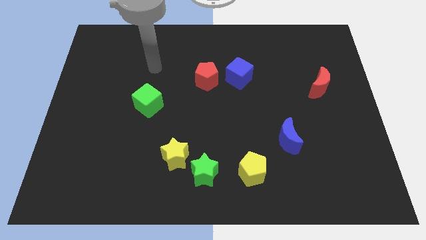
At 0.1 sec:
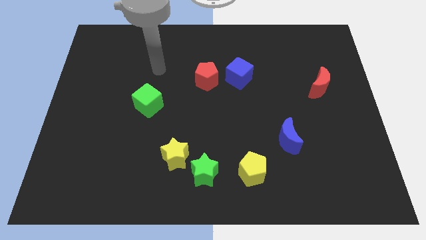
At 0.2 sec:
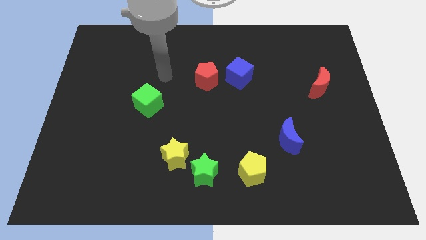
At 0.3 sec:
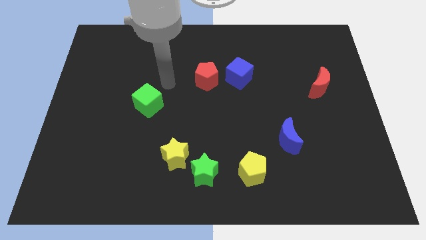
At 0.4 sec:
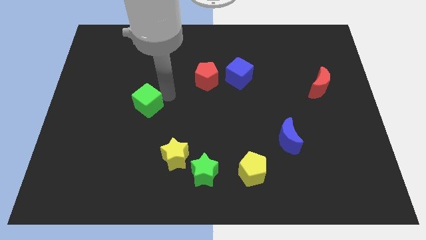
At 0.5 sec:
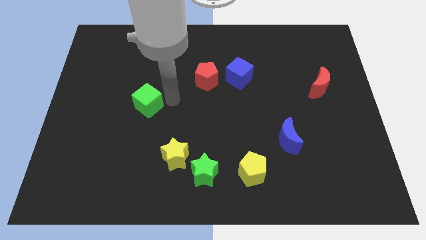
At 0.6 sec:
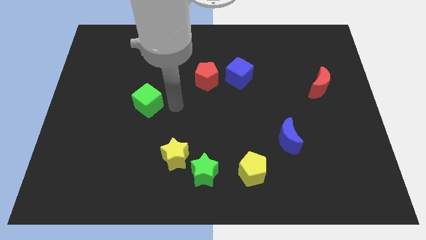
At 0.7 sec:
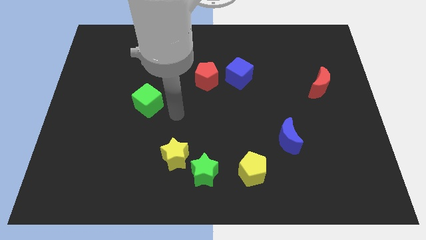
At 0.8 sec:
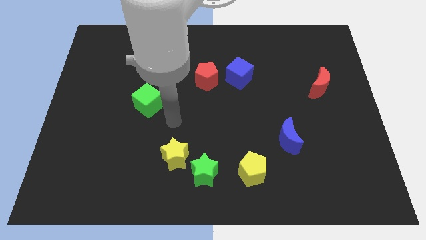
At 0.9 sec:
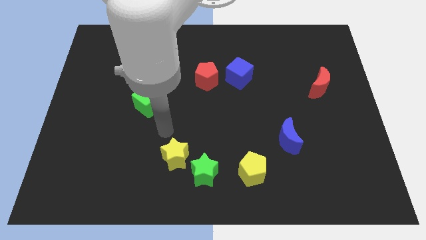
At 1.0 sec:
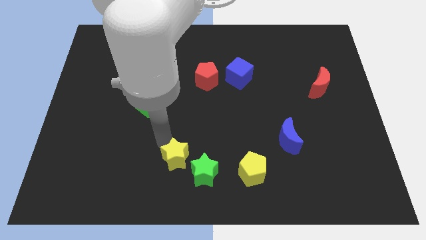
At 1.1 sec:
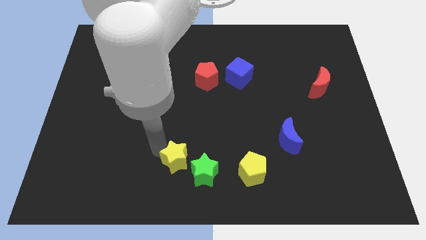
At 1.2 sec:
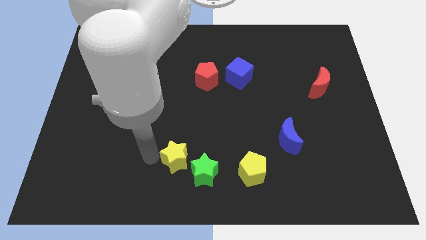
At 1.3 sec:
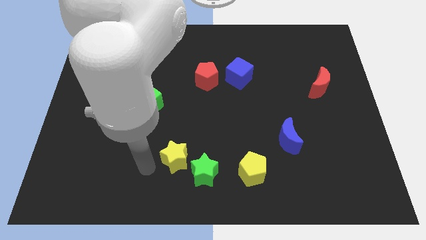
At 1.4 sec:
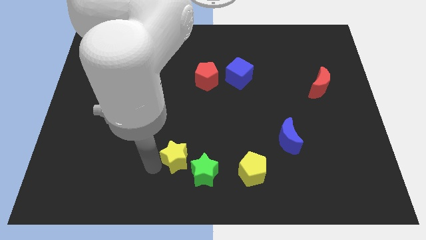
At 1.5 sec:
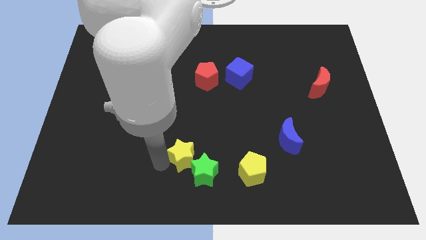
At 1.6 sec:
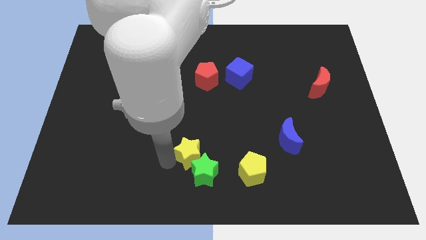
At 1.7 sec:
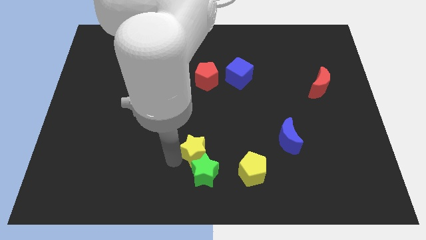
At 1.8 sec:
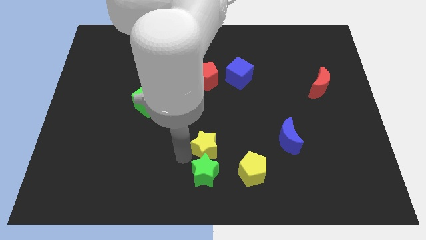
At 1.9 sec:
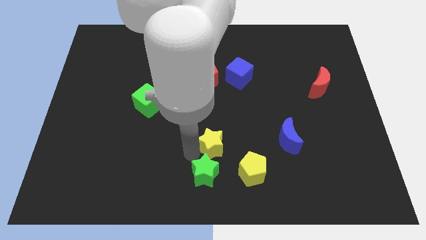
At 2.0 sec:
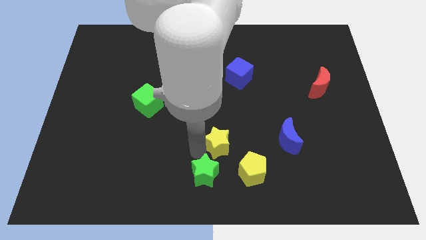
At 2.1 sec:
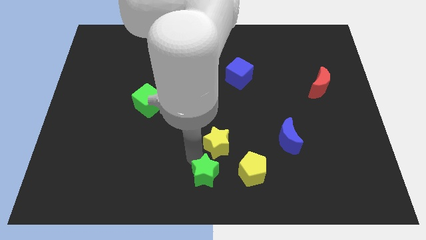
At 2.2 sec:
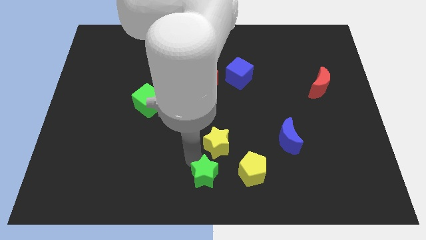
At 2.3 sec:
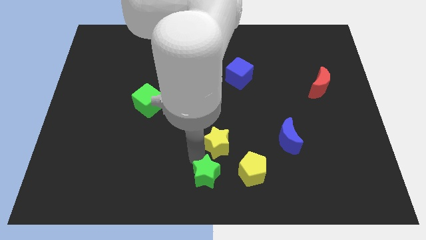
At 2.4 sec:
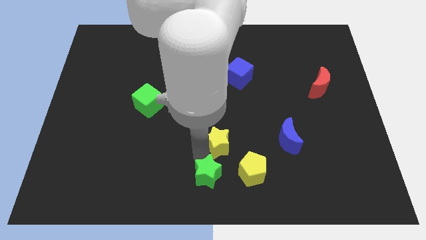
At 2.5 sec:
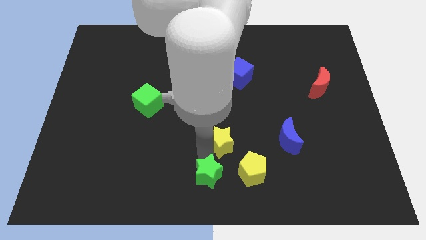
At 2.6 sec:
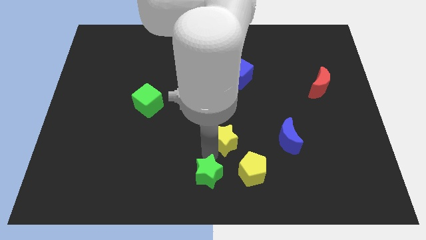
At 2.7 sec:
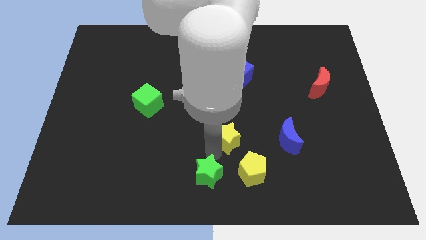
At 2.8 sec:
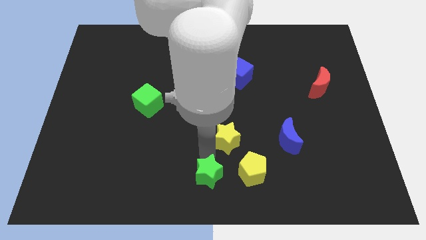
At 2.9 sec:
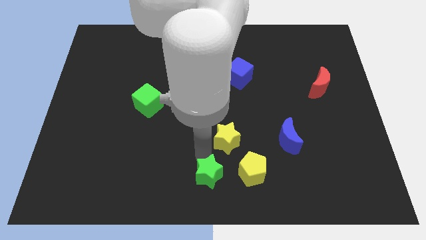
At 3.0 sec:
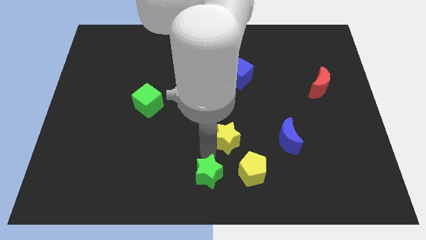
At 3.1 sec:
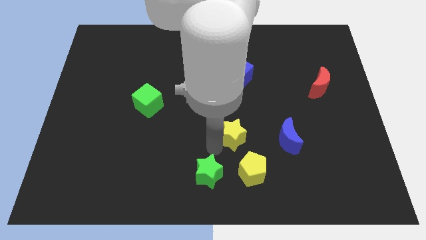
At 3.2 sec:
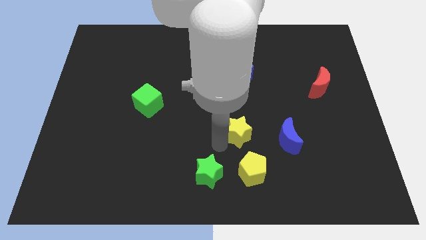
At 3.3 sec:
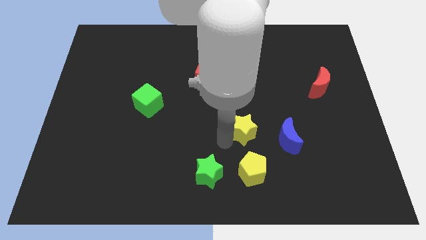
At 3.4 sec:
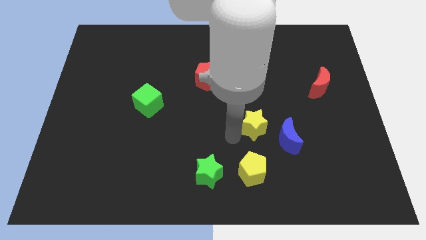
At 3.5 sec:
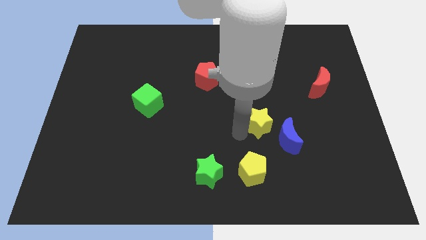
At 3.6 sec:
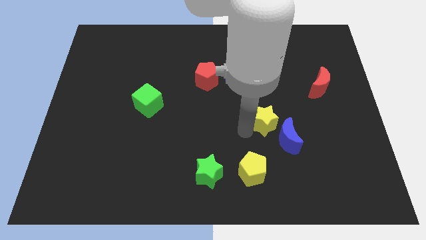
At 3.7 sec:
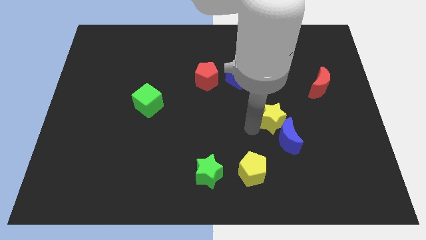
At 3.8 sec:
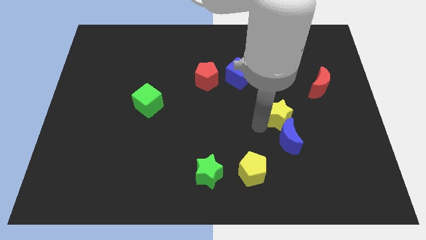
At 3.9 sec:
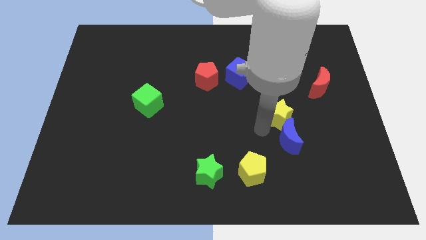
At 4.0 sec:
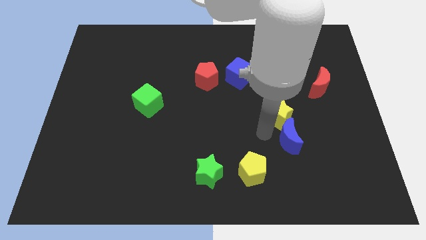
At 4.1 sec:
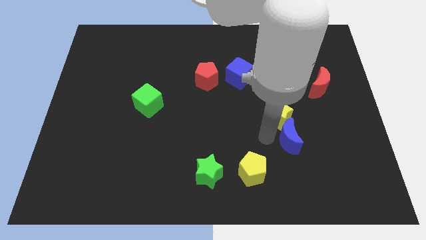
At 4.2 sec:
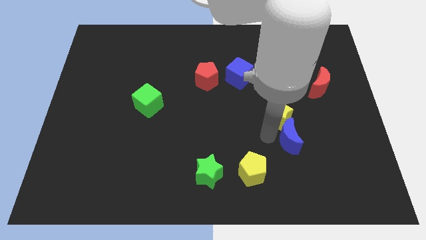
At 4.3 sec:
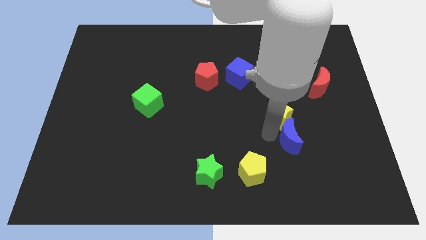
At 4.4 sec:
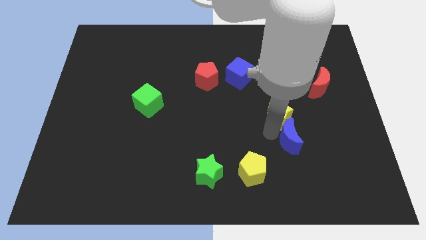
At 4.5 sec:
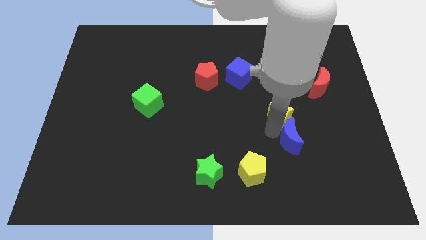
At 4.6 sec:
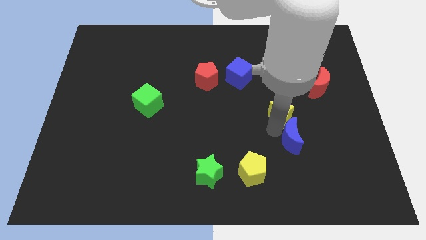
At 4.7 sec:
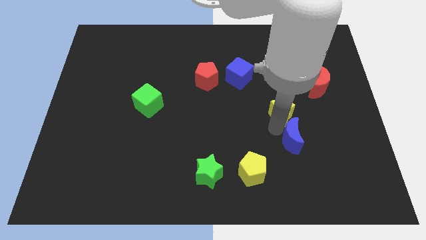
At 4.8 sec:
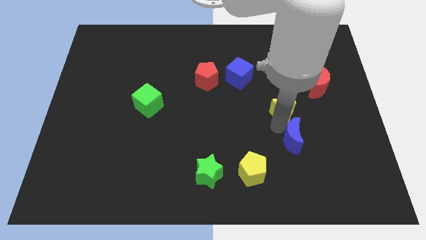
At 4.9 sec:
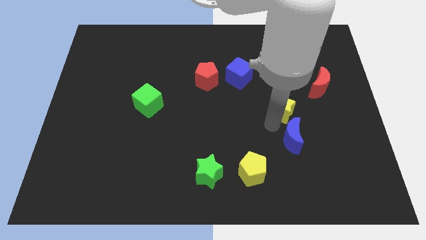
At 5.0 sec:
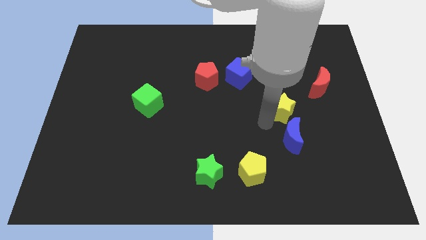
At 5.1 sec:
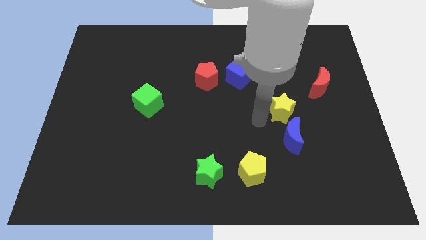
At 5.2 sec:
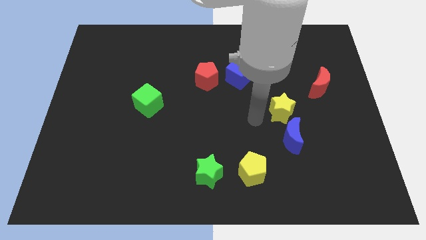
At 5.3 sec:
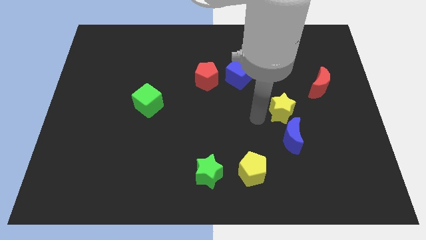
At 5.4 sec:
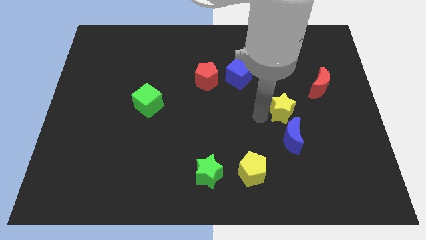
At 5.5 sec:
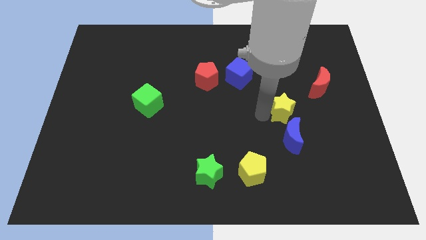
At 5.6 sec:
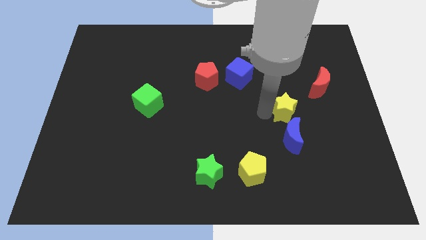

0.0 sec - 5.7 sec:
slide the yellow star diagonally down and to the left of the red moon

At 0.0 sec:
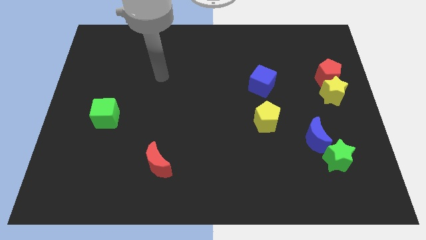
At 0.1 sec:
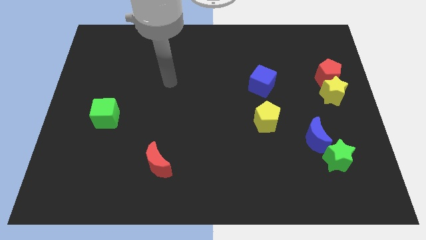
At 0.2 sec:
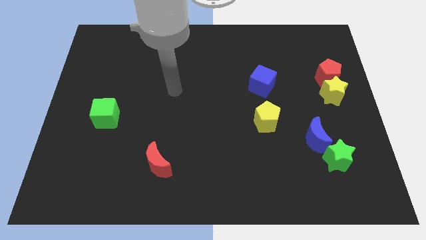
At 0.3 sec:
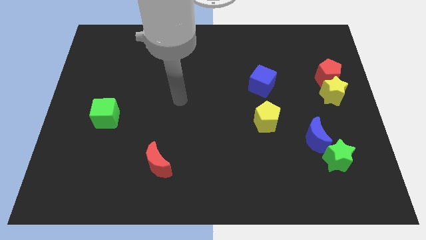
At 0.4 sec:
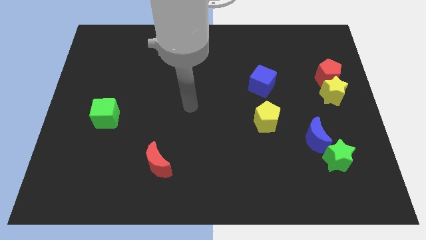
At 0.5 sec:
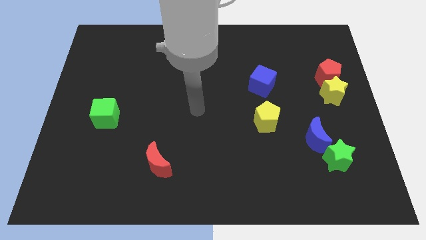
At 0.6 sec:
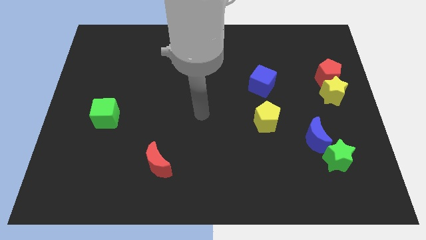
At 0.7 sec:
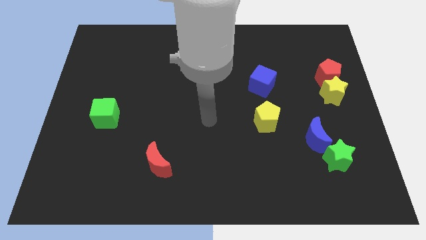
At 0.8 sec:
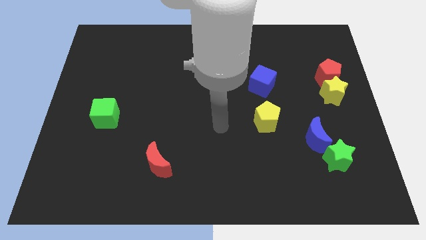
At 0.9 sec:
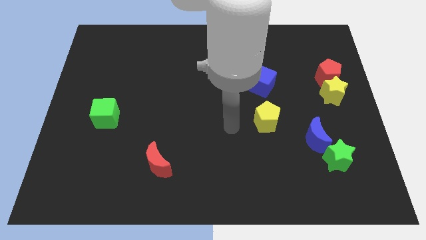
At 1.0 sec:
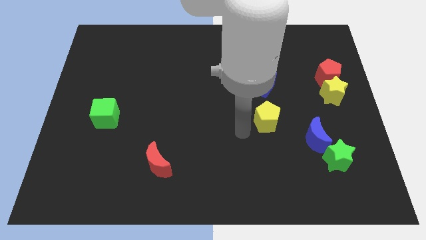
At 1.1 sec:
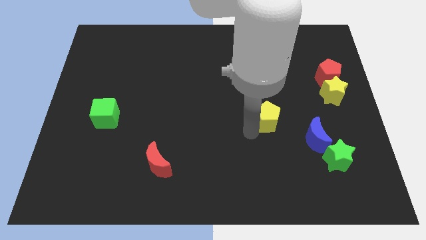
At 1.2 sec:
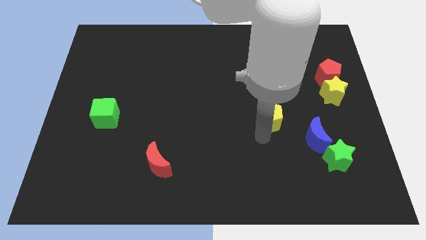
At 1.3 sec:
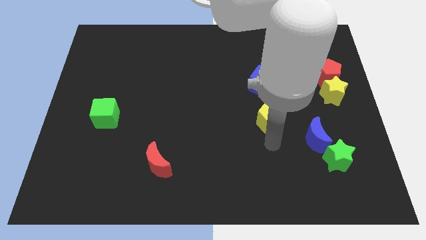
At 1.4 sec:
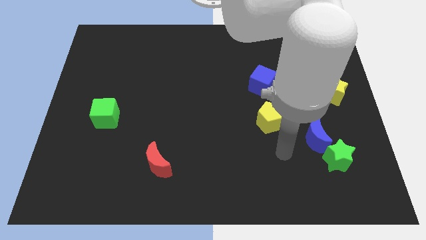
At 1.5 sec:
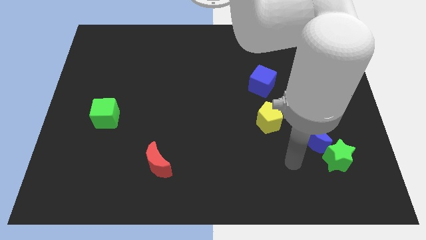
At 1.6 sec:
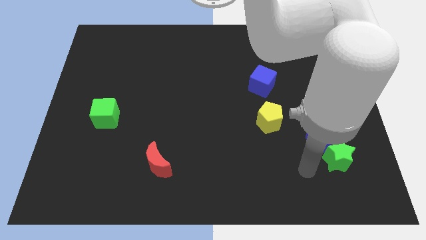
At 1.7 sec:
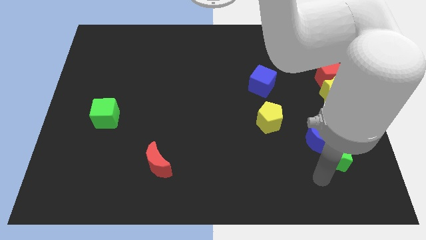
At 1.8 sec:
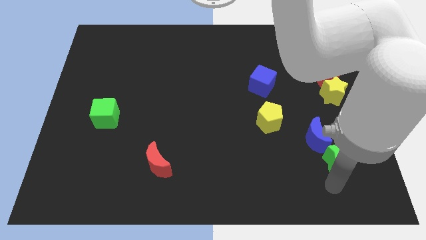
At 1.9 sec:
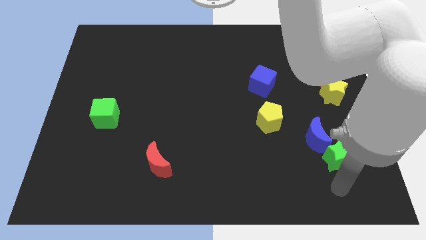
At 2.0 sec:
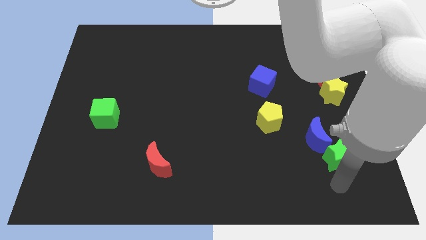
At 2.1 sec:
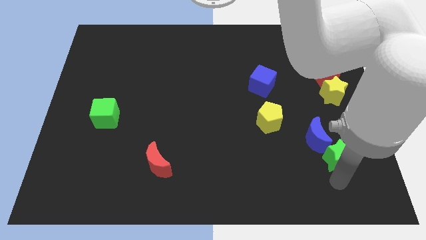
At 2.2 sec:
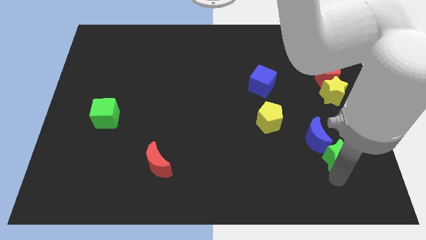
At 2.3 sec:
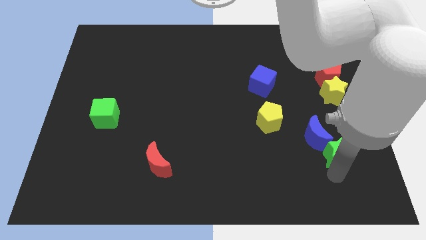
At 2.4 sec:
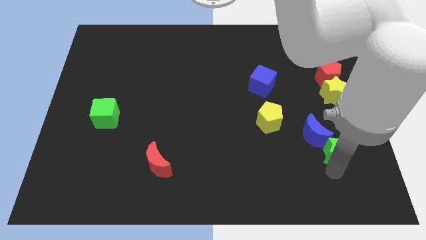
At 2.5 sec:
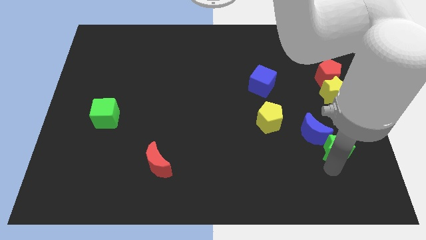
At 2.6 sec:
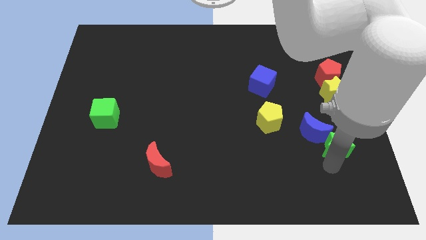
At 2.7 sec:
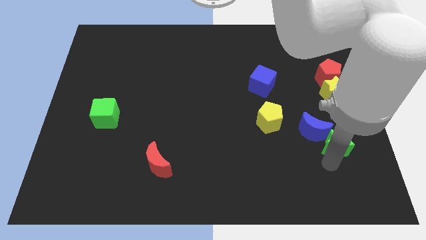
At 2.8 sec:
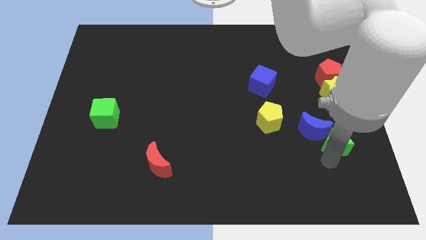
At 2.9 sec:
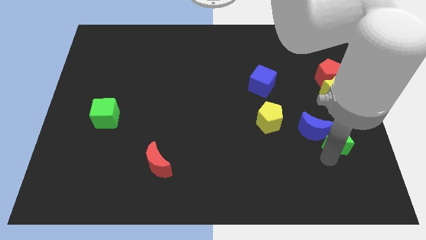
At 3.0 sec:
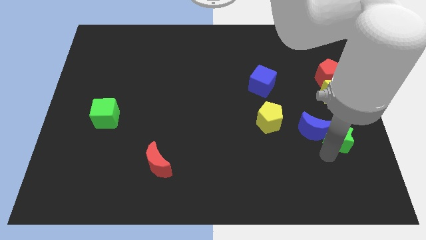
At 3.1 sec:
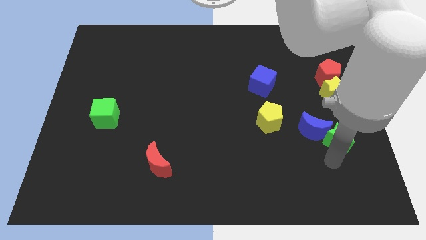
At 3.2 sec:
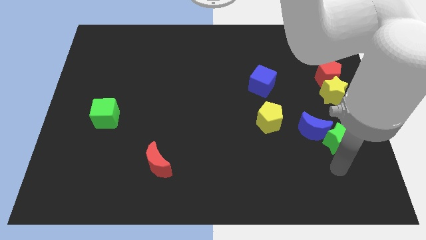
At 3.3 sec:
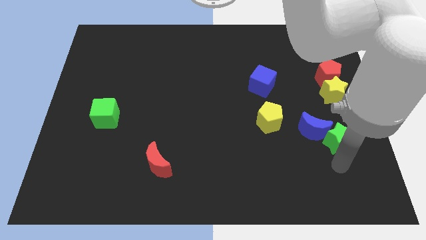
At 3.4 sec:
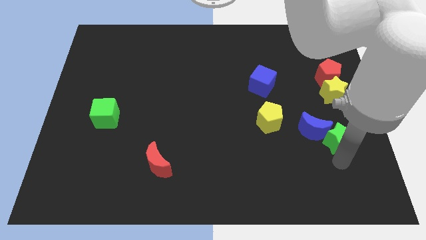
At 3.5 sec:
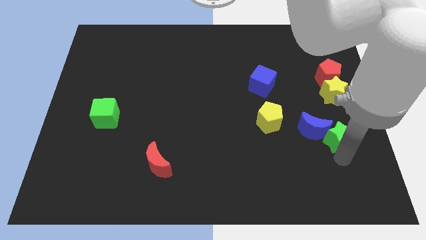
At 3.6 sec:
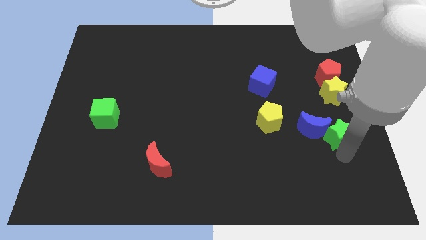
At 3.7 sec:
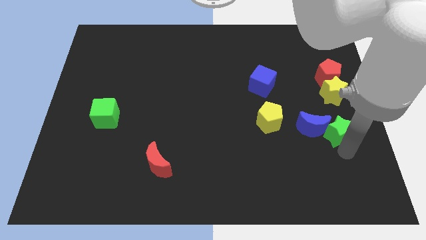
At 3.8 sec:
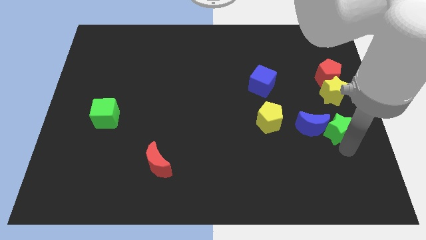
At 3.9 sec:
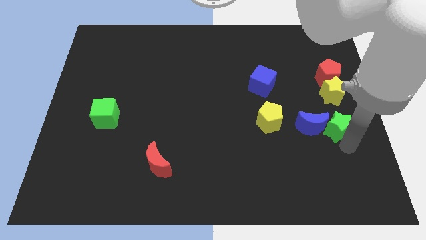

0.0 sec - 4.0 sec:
slide the green star to the bottom side of the red pentagon
